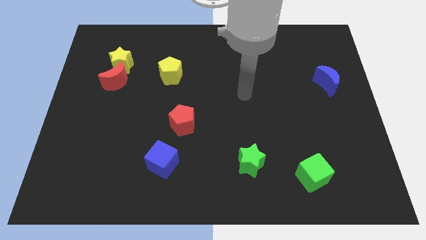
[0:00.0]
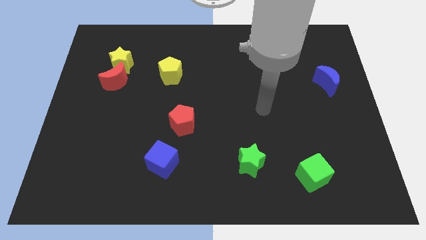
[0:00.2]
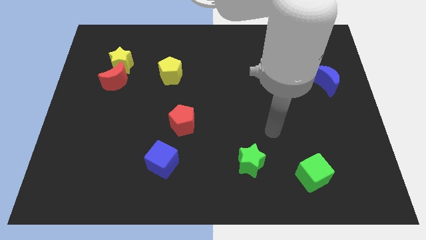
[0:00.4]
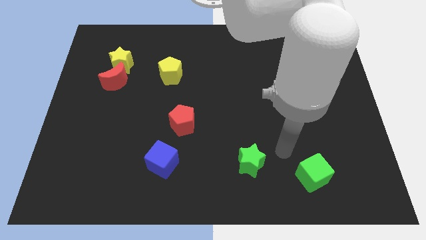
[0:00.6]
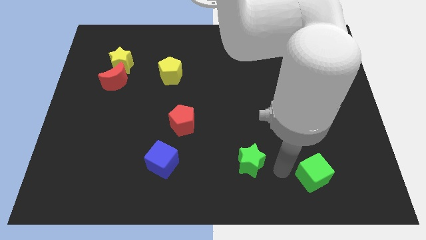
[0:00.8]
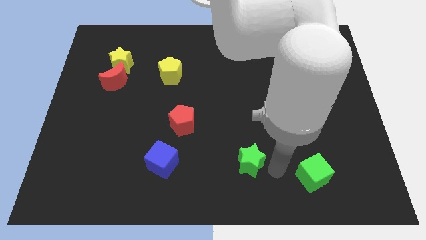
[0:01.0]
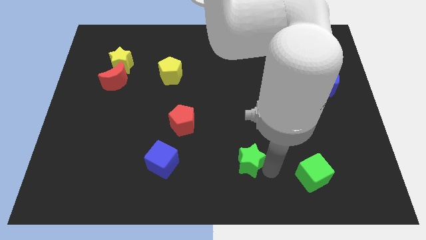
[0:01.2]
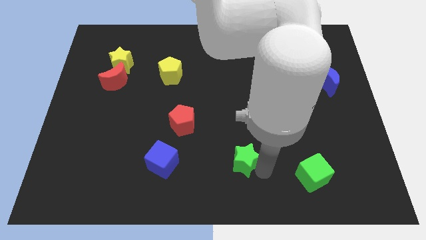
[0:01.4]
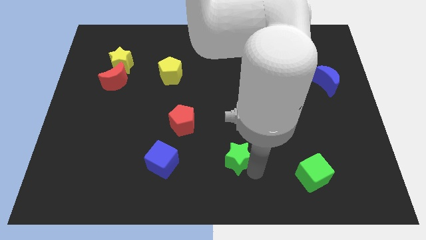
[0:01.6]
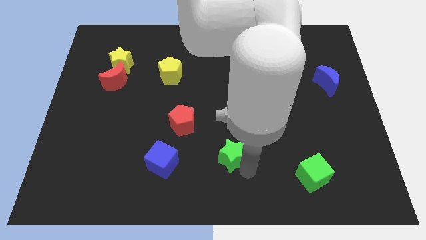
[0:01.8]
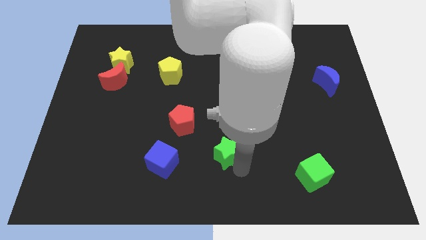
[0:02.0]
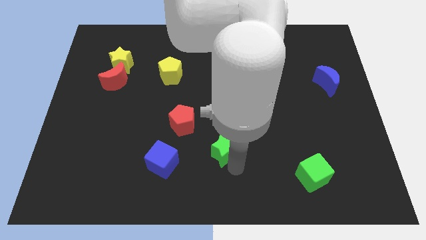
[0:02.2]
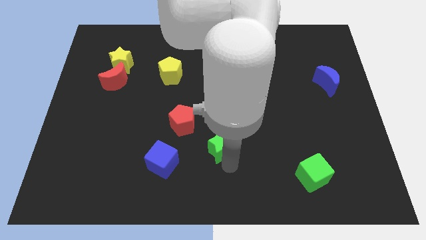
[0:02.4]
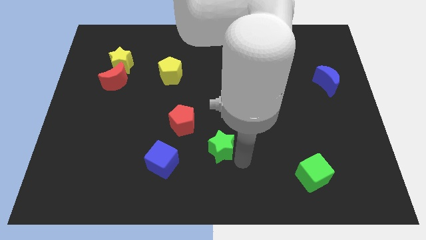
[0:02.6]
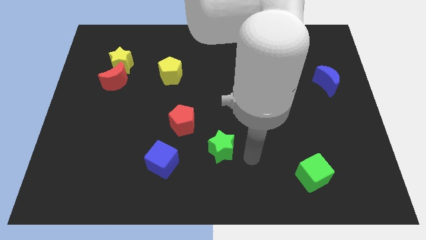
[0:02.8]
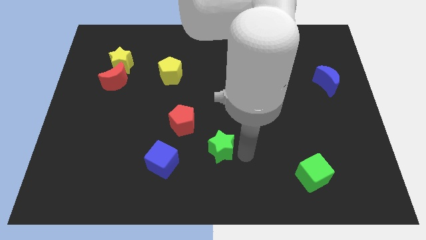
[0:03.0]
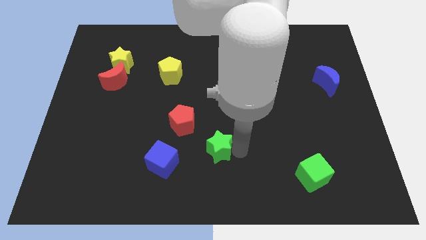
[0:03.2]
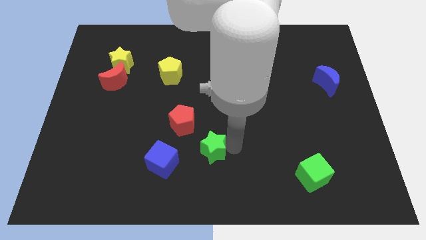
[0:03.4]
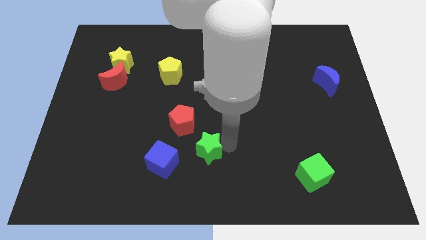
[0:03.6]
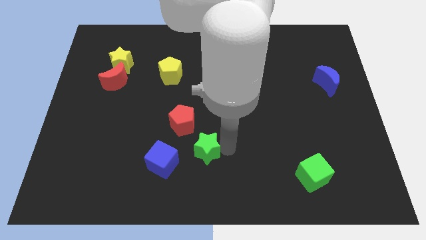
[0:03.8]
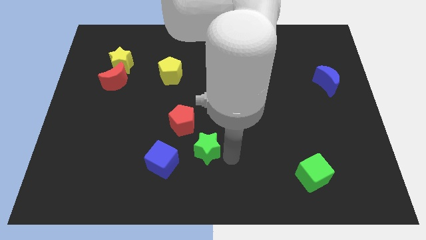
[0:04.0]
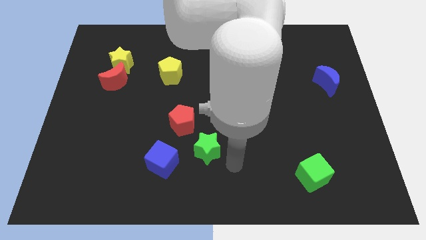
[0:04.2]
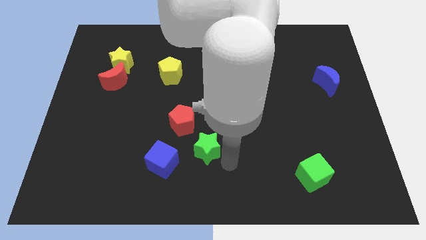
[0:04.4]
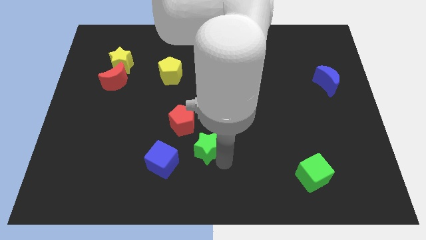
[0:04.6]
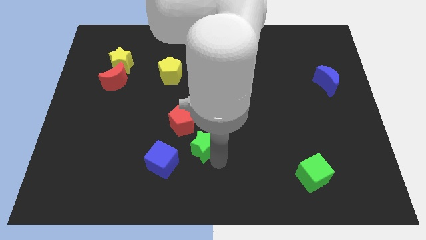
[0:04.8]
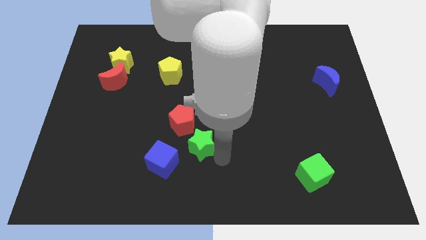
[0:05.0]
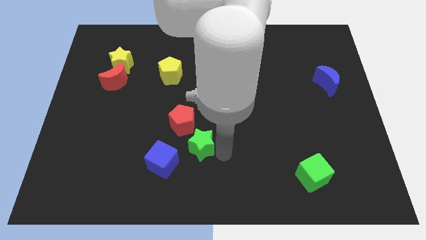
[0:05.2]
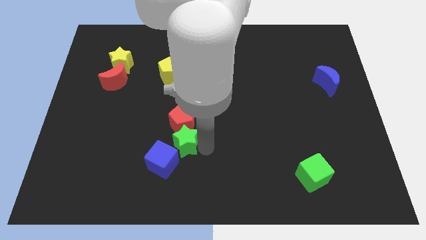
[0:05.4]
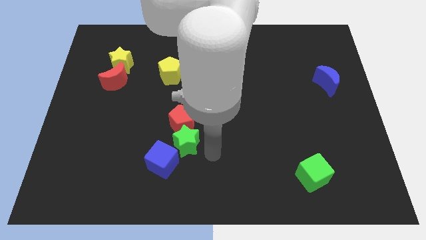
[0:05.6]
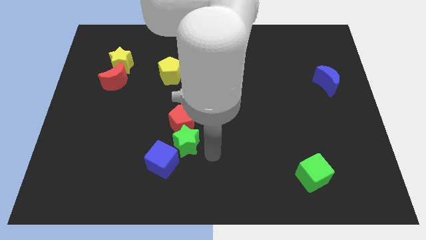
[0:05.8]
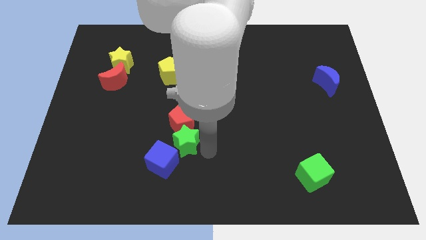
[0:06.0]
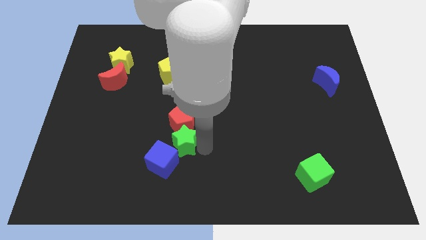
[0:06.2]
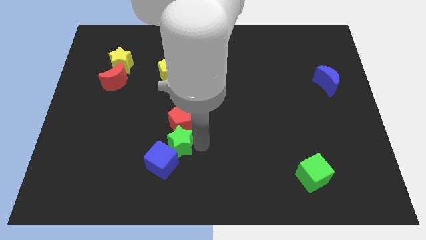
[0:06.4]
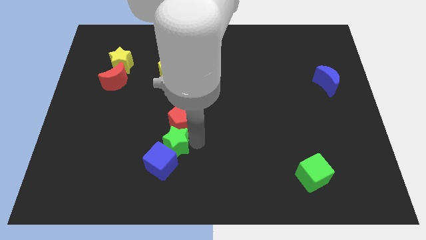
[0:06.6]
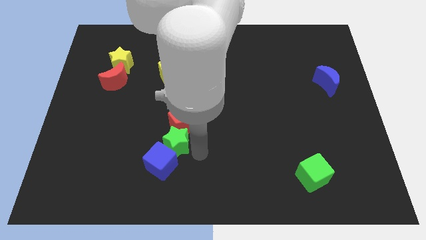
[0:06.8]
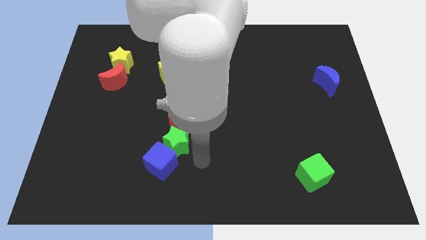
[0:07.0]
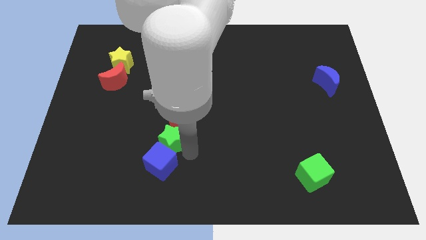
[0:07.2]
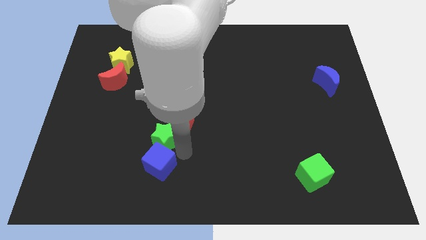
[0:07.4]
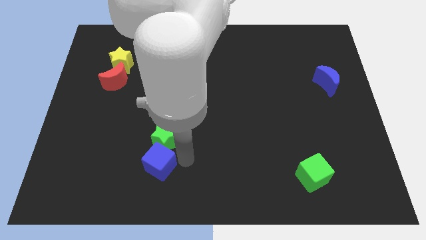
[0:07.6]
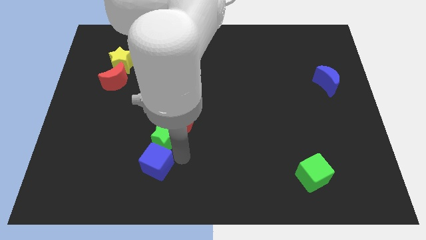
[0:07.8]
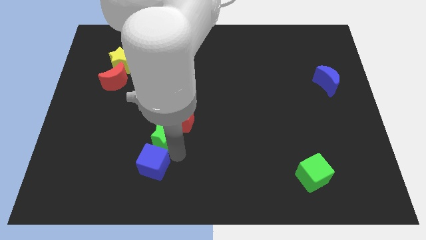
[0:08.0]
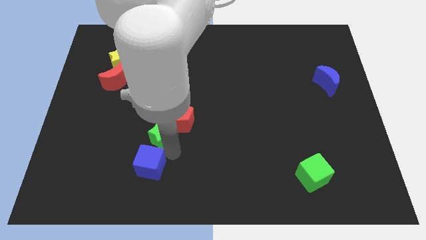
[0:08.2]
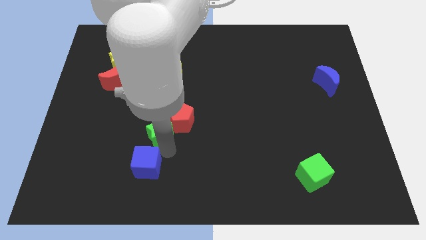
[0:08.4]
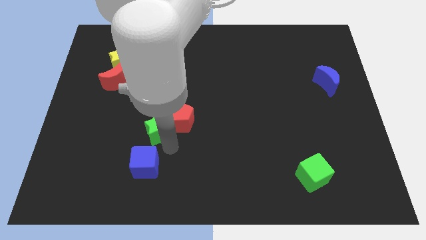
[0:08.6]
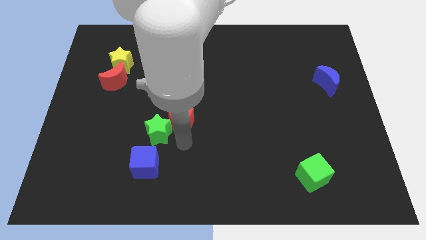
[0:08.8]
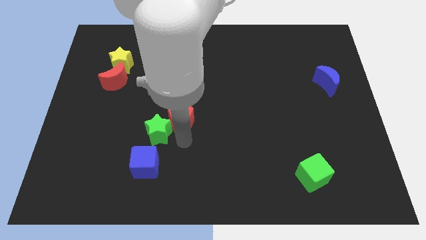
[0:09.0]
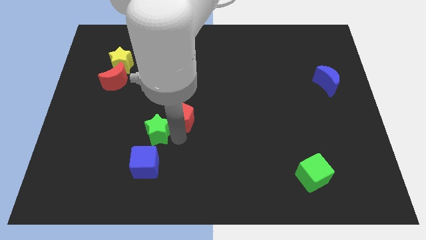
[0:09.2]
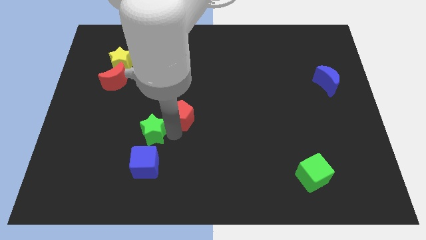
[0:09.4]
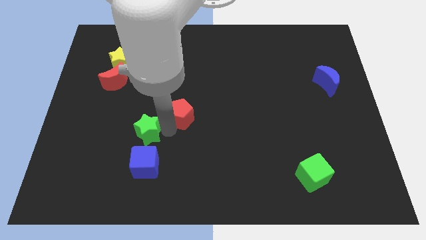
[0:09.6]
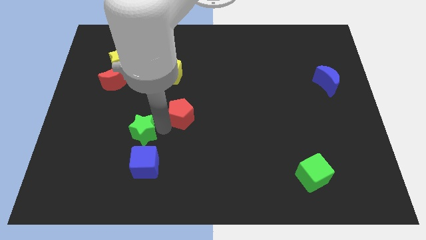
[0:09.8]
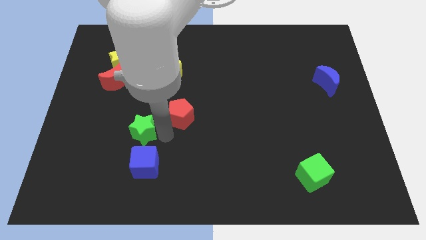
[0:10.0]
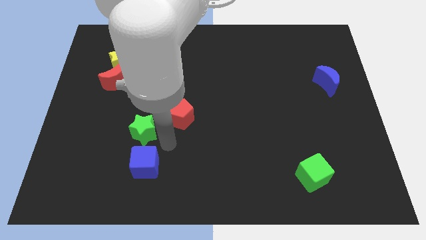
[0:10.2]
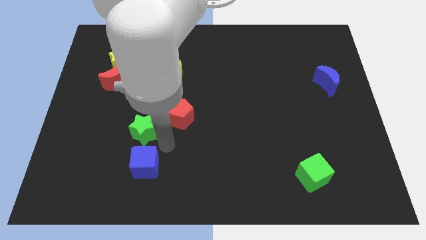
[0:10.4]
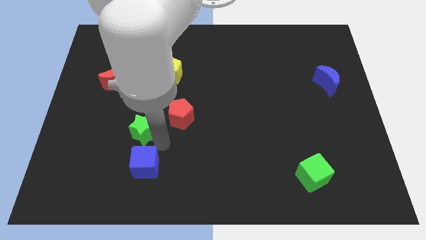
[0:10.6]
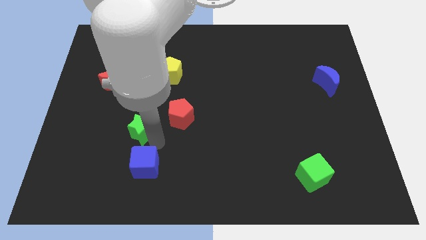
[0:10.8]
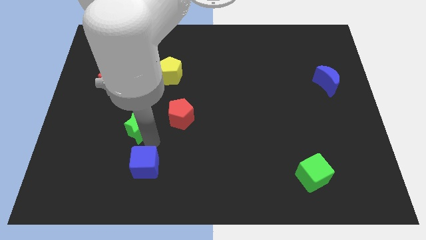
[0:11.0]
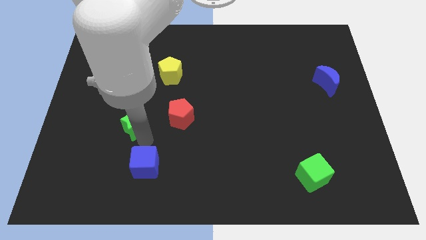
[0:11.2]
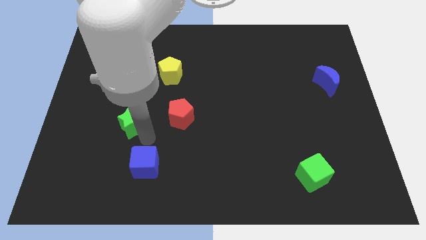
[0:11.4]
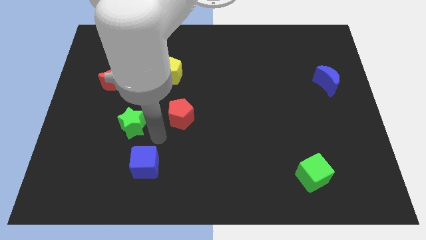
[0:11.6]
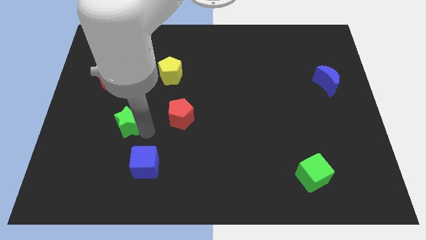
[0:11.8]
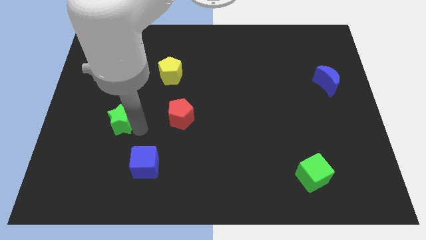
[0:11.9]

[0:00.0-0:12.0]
slide the green star to the bottom side of the red moon

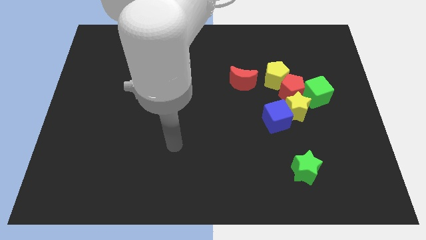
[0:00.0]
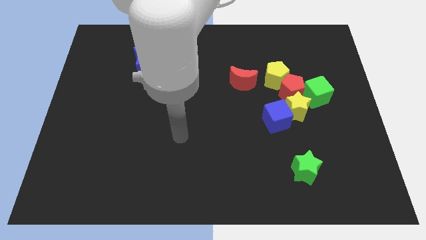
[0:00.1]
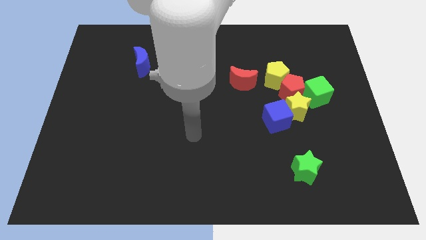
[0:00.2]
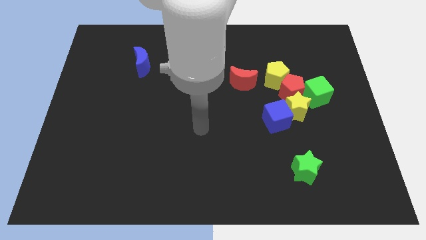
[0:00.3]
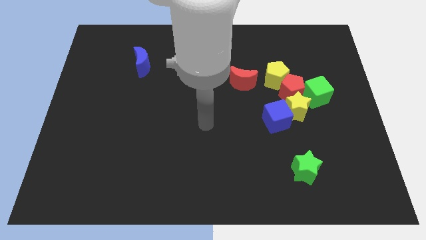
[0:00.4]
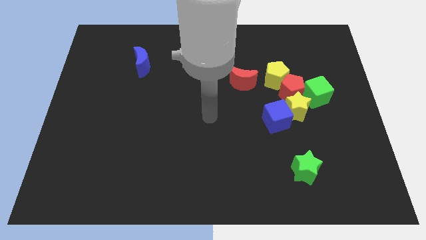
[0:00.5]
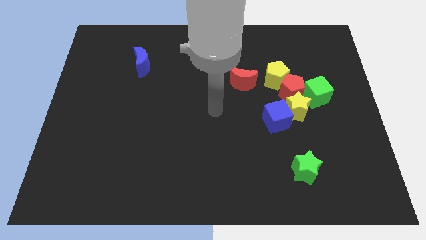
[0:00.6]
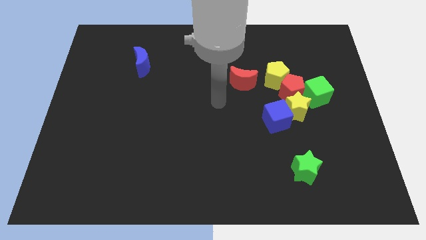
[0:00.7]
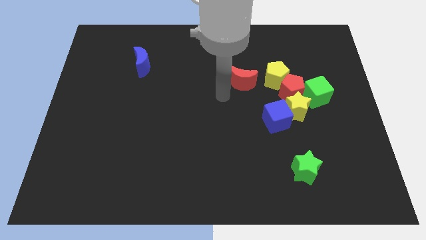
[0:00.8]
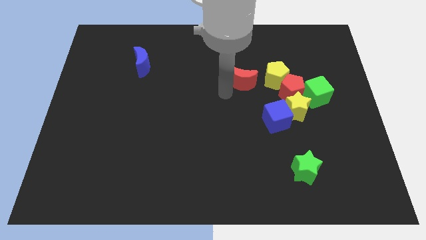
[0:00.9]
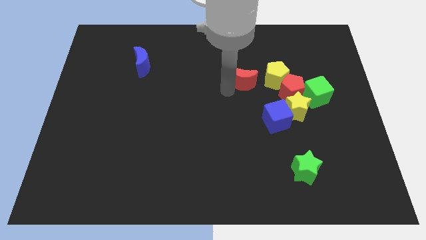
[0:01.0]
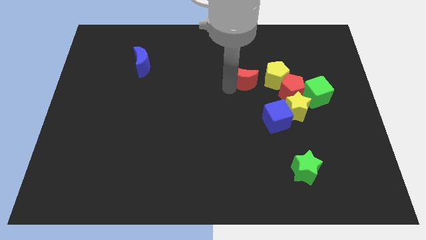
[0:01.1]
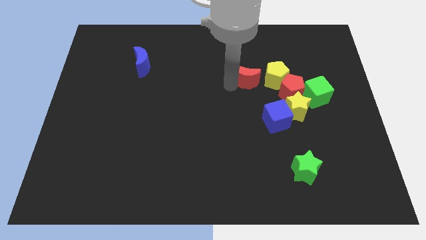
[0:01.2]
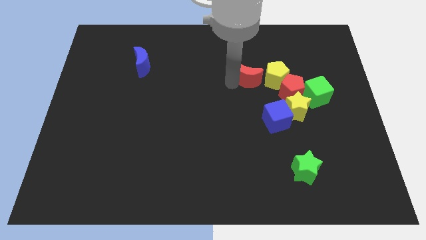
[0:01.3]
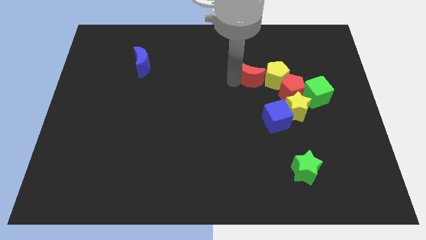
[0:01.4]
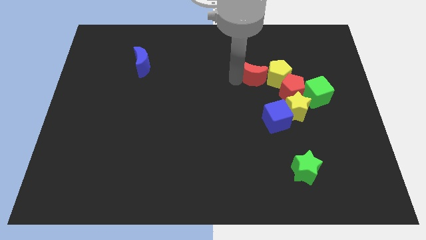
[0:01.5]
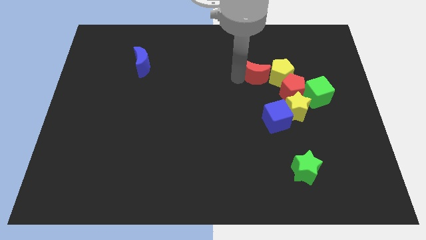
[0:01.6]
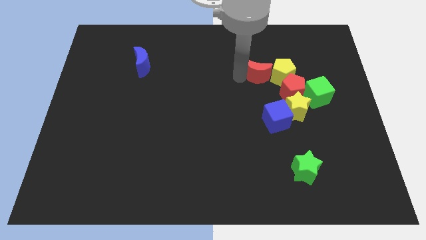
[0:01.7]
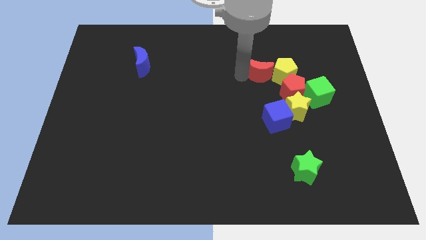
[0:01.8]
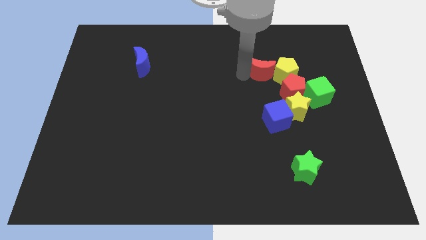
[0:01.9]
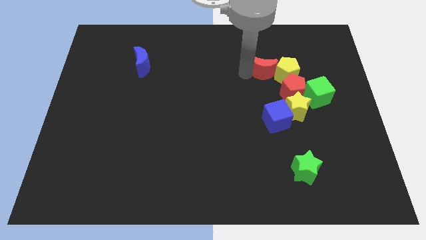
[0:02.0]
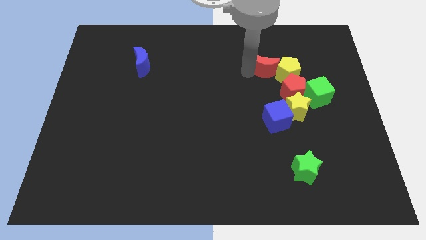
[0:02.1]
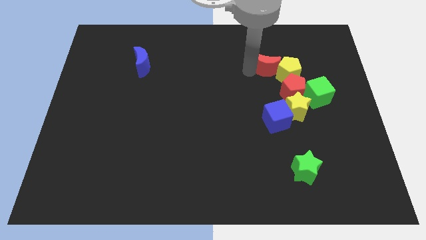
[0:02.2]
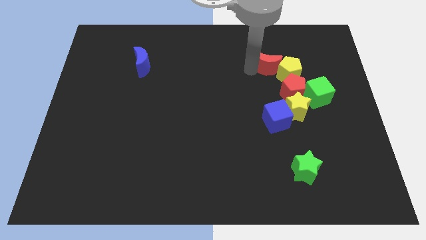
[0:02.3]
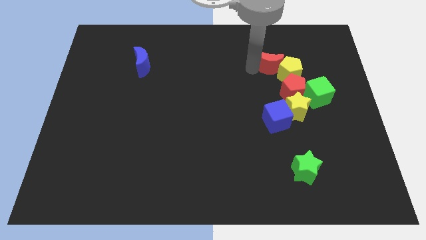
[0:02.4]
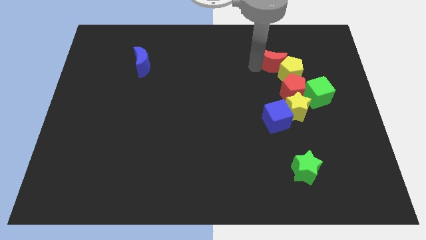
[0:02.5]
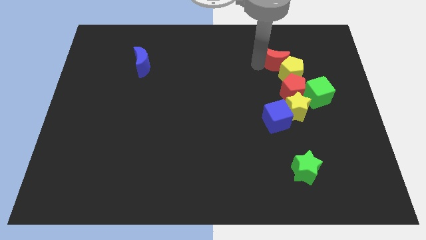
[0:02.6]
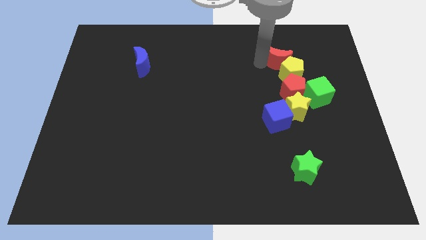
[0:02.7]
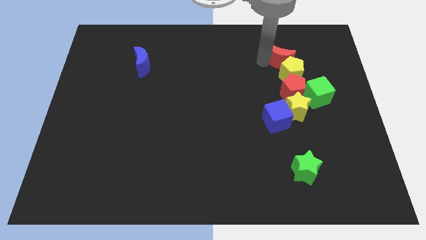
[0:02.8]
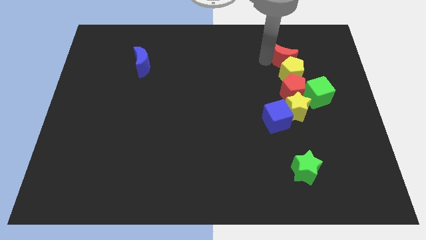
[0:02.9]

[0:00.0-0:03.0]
slide the red moon diagonally up and to the right of the yellow pentagon
